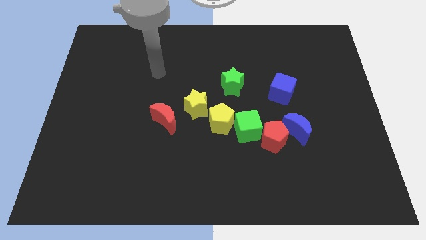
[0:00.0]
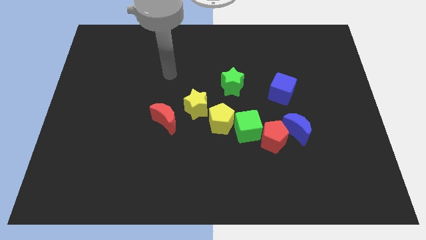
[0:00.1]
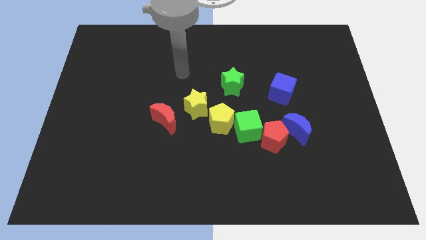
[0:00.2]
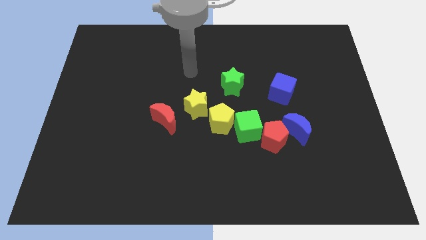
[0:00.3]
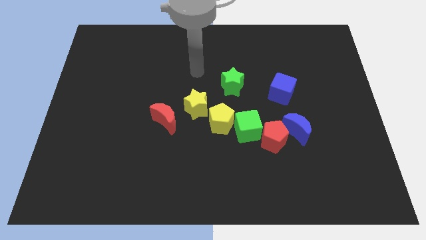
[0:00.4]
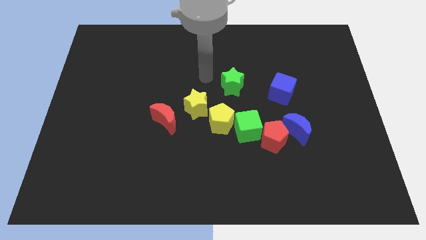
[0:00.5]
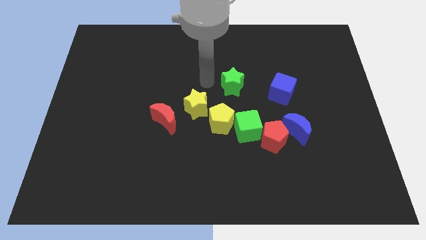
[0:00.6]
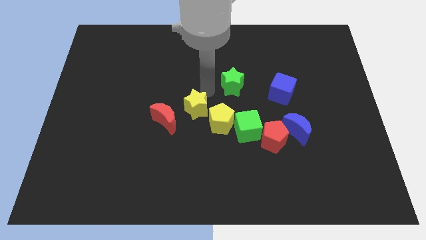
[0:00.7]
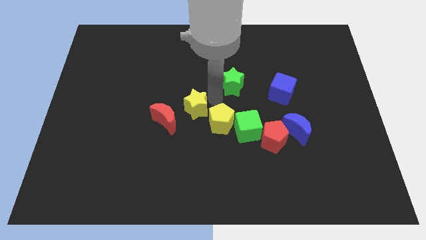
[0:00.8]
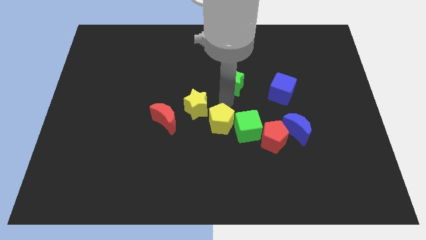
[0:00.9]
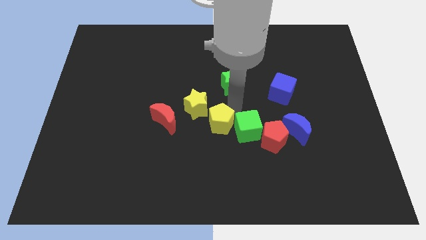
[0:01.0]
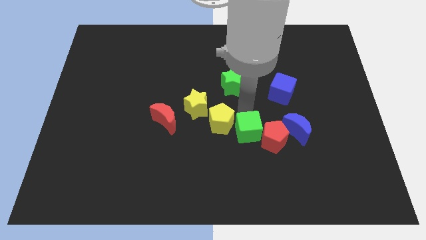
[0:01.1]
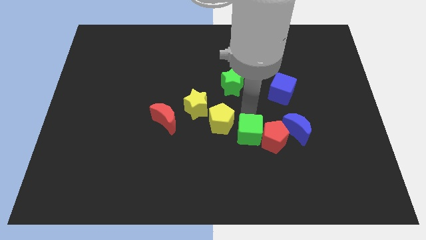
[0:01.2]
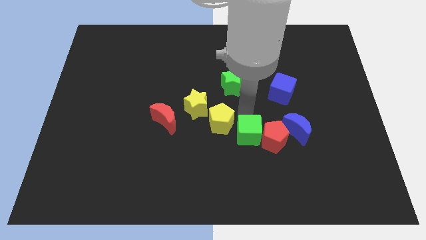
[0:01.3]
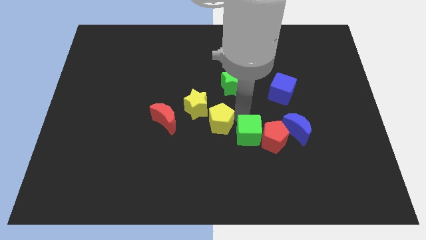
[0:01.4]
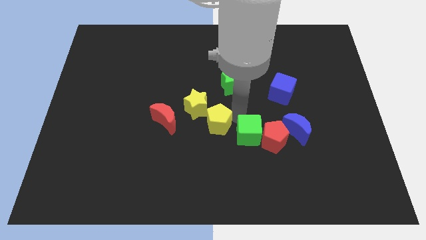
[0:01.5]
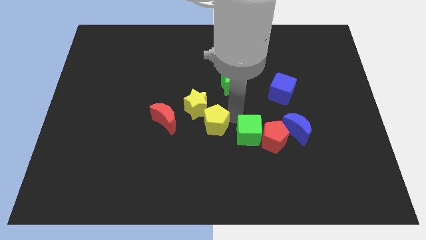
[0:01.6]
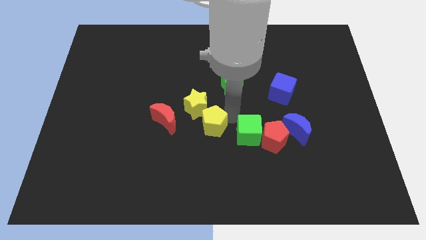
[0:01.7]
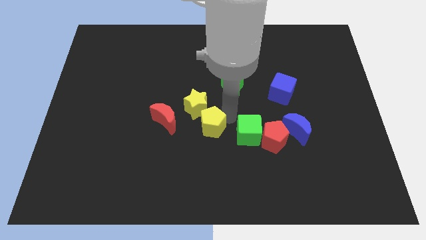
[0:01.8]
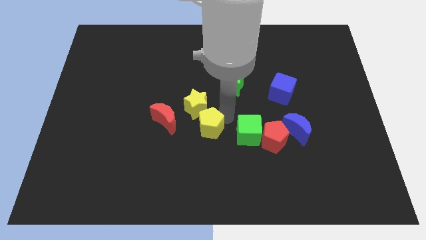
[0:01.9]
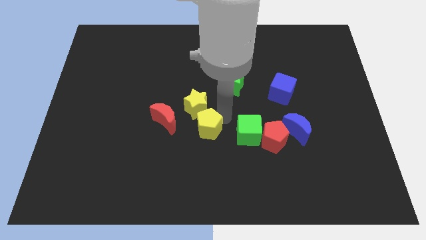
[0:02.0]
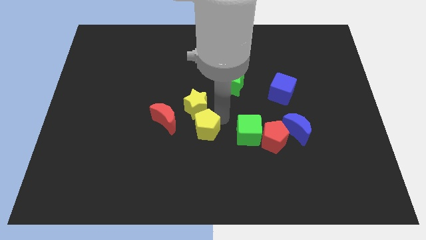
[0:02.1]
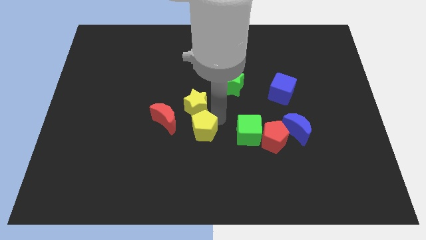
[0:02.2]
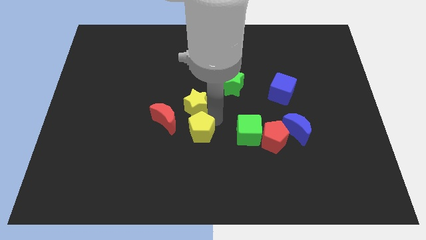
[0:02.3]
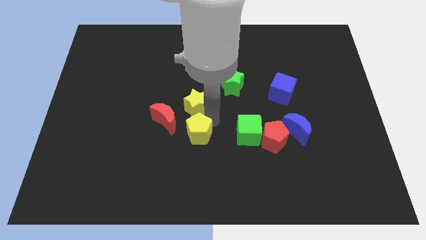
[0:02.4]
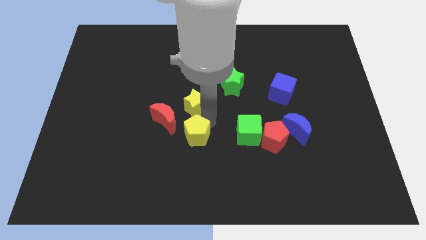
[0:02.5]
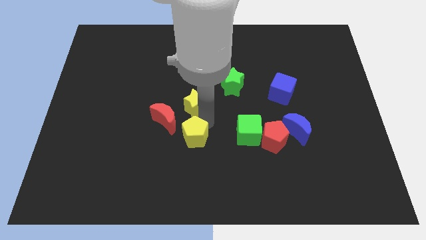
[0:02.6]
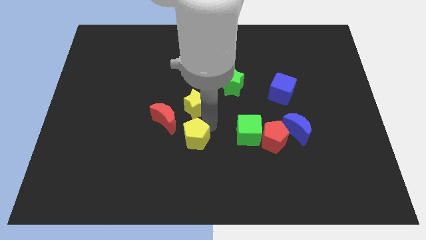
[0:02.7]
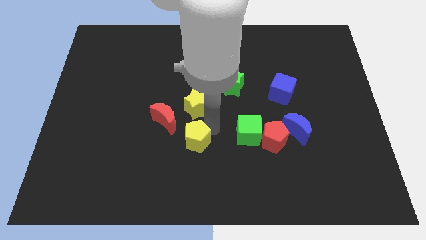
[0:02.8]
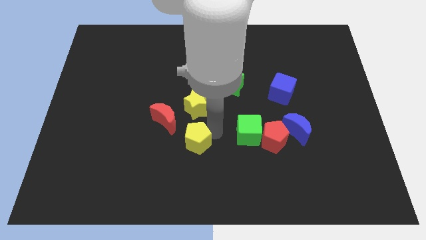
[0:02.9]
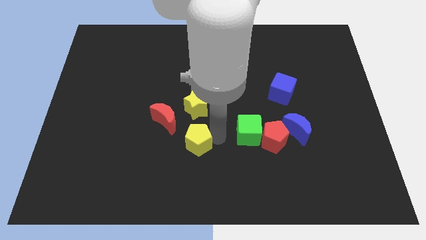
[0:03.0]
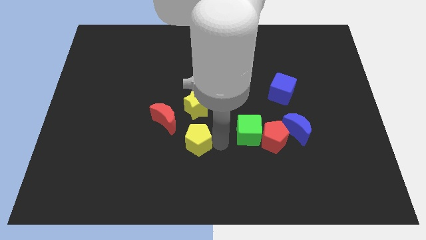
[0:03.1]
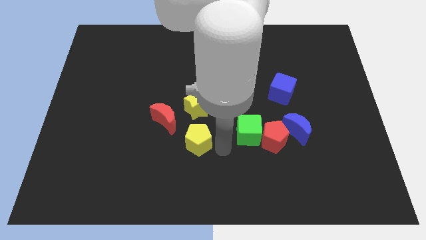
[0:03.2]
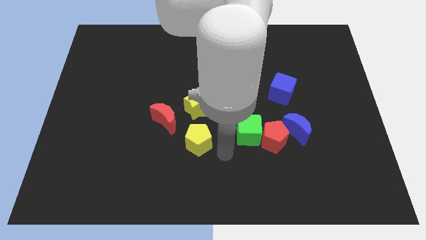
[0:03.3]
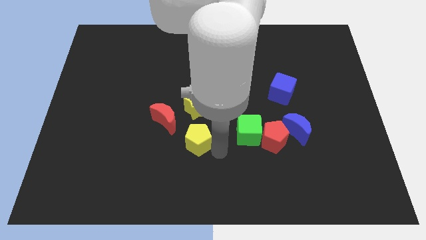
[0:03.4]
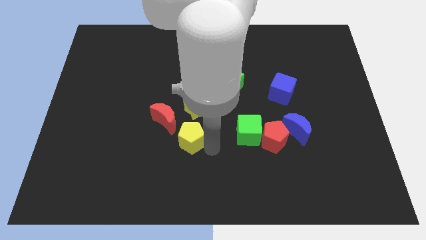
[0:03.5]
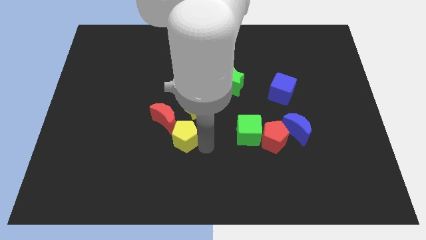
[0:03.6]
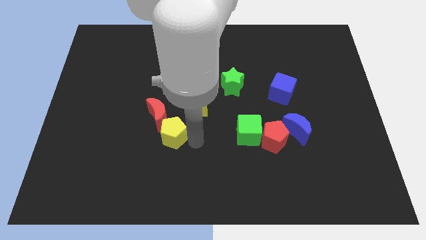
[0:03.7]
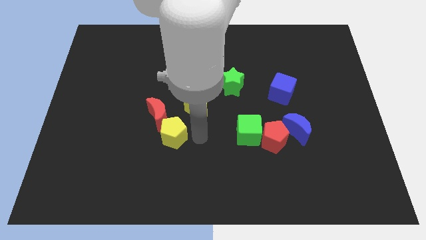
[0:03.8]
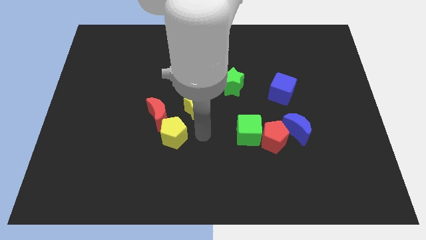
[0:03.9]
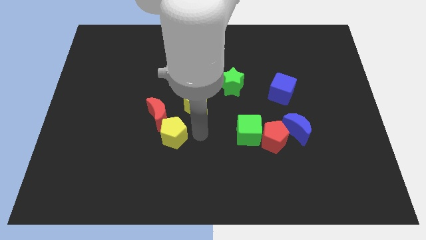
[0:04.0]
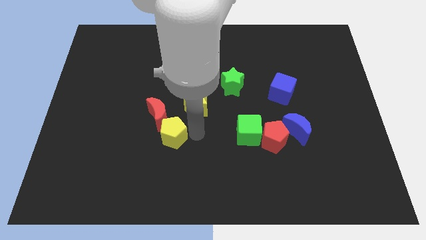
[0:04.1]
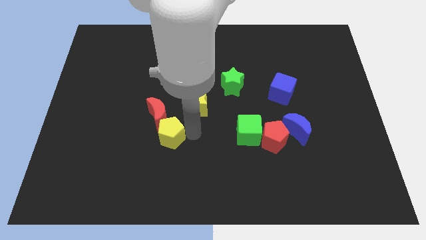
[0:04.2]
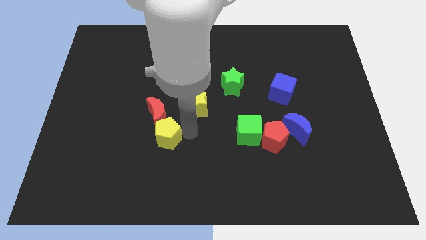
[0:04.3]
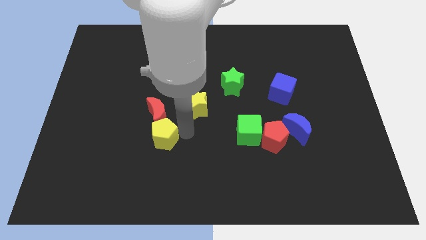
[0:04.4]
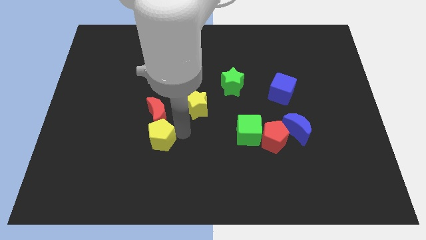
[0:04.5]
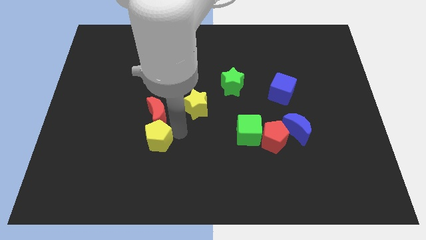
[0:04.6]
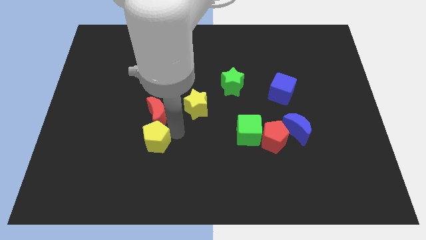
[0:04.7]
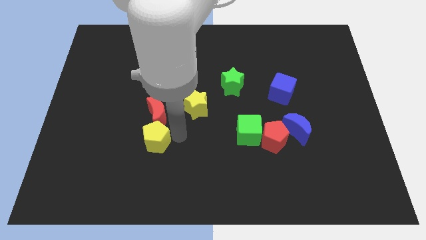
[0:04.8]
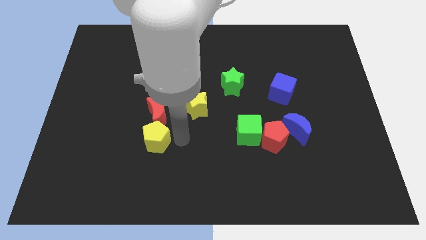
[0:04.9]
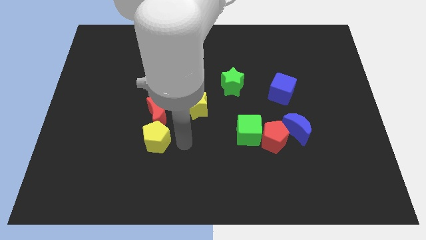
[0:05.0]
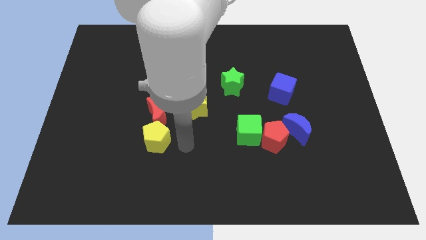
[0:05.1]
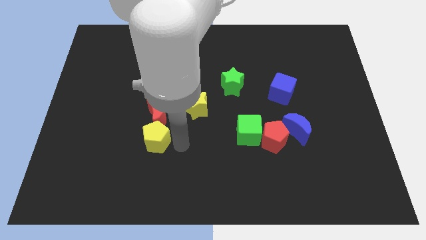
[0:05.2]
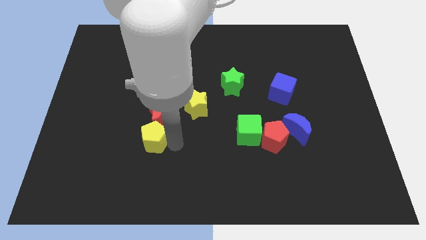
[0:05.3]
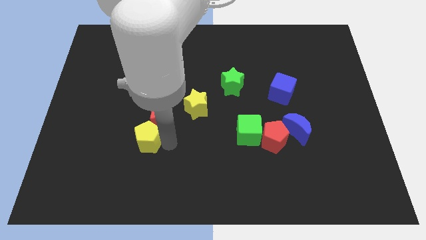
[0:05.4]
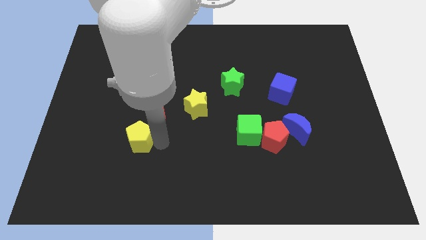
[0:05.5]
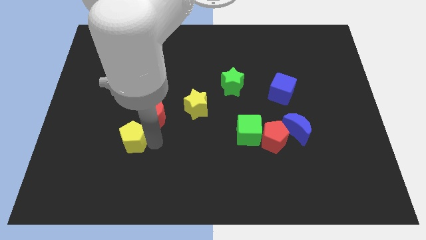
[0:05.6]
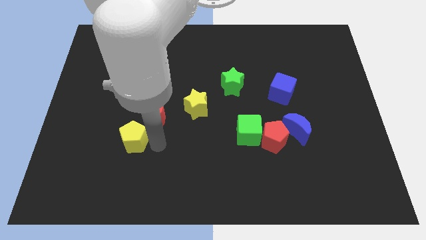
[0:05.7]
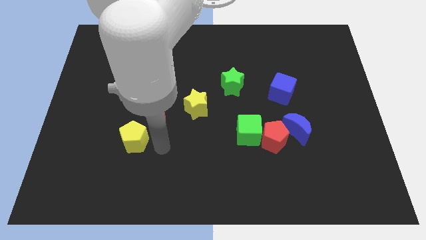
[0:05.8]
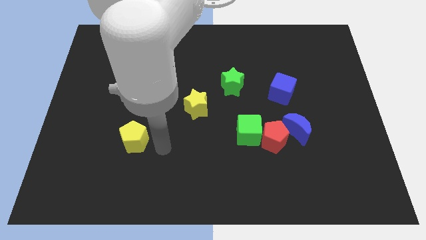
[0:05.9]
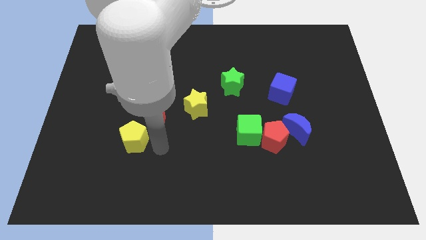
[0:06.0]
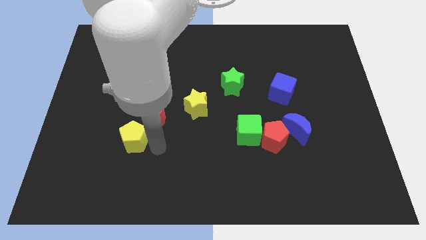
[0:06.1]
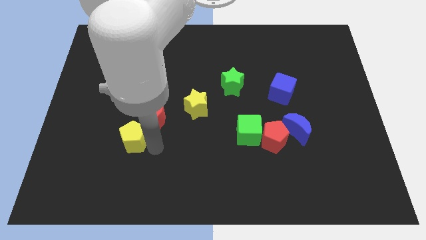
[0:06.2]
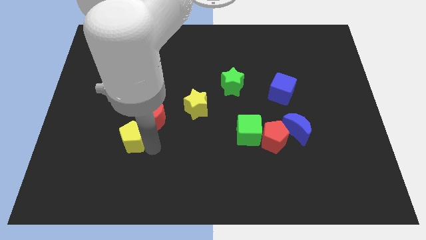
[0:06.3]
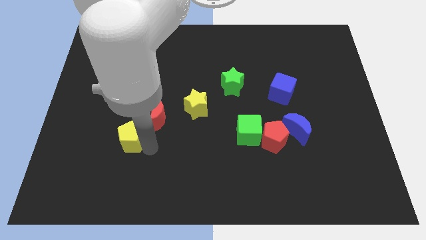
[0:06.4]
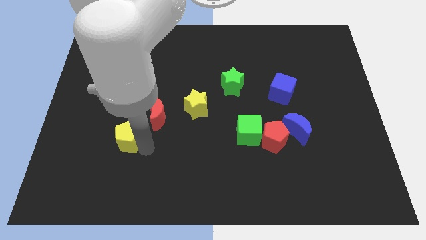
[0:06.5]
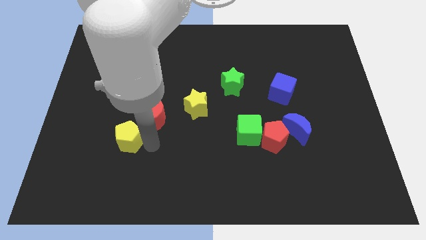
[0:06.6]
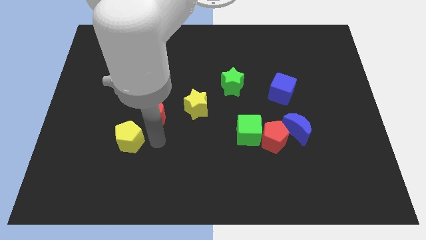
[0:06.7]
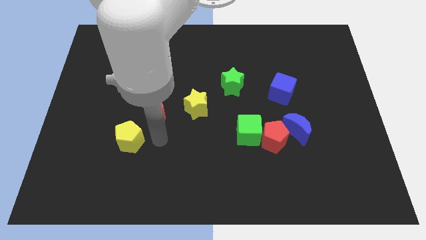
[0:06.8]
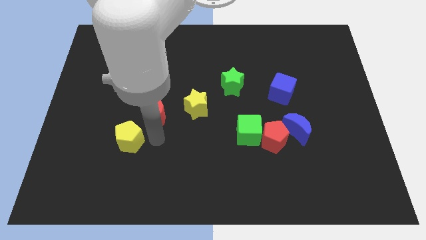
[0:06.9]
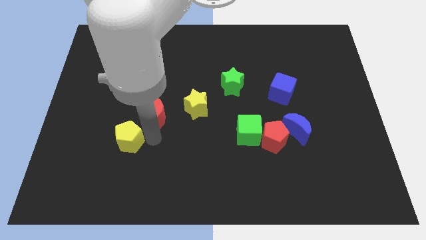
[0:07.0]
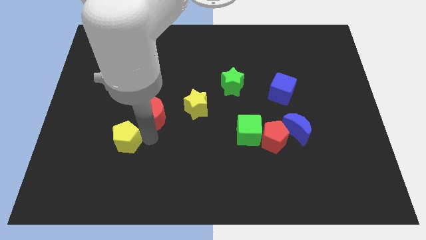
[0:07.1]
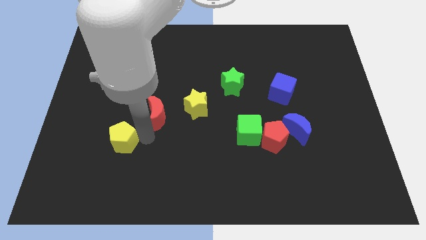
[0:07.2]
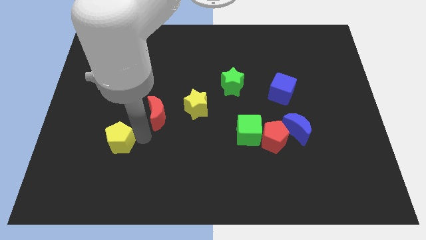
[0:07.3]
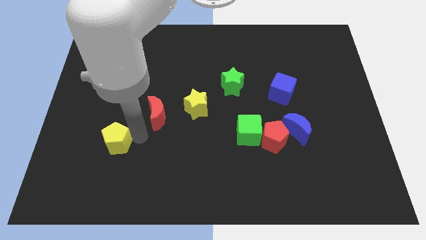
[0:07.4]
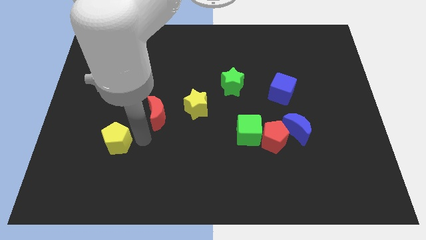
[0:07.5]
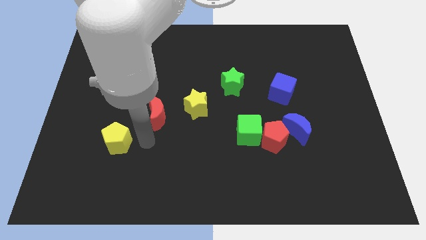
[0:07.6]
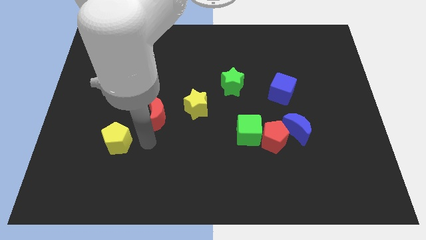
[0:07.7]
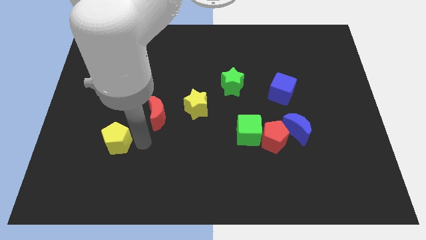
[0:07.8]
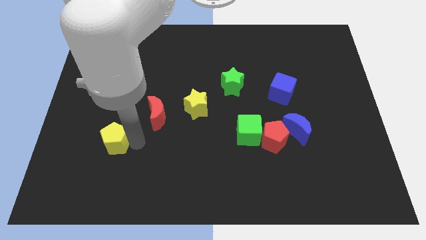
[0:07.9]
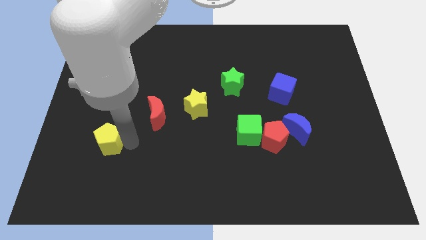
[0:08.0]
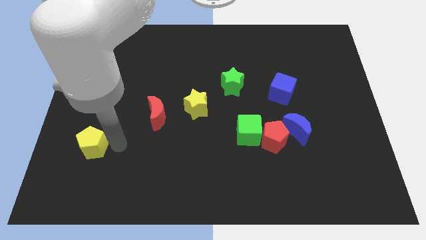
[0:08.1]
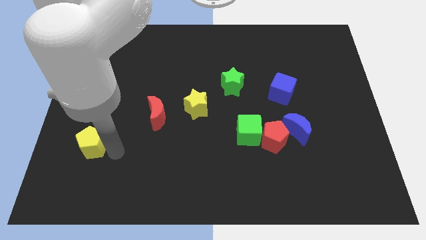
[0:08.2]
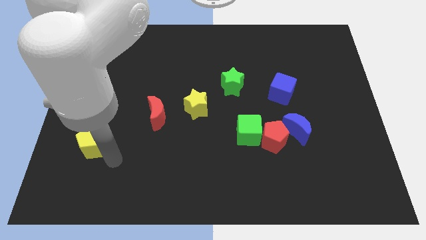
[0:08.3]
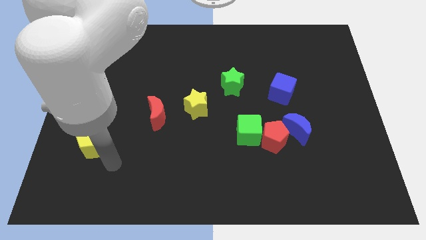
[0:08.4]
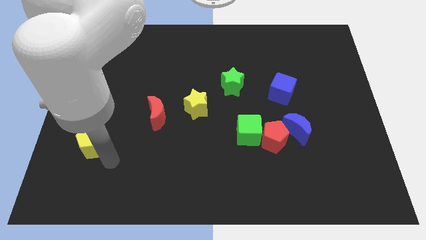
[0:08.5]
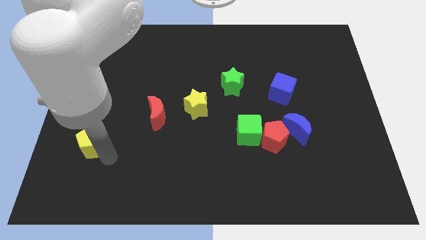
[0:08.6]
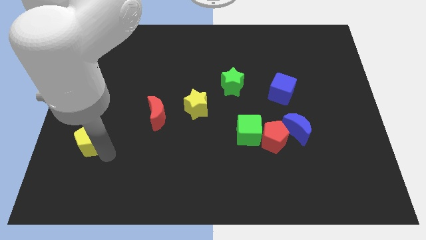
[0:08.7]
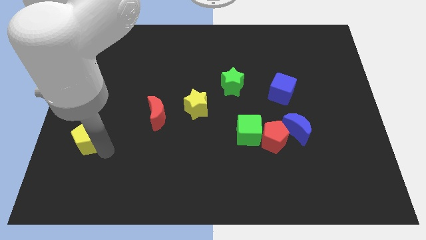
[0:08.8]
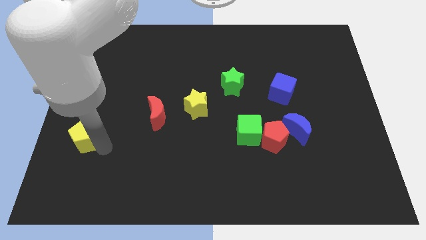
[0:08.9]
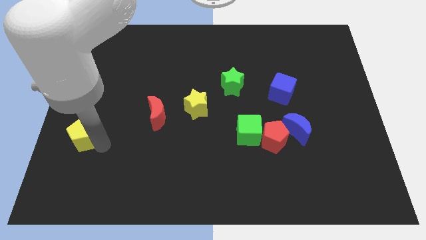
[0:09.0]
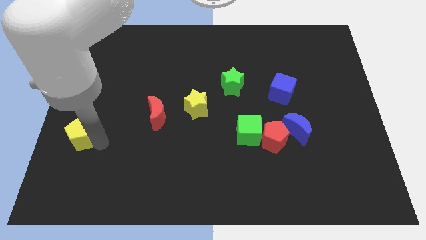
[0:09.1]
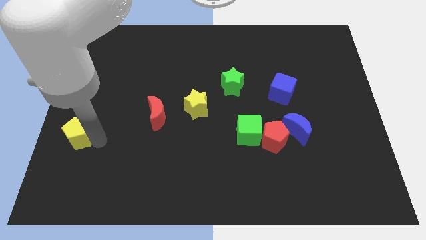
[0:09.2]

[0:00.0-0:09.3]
put the yellow pentagon to the center left
